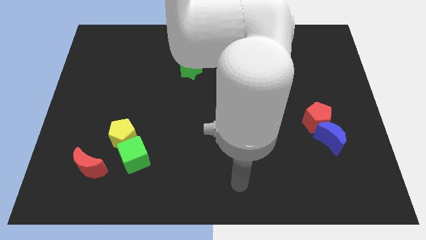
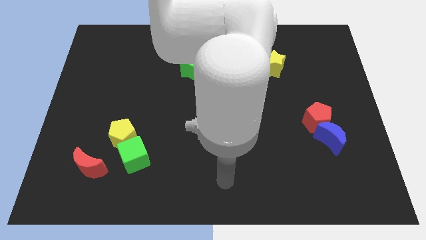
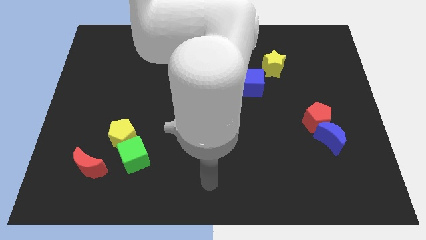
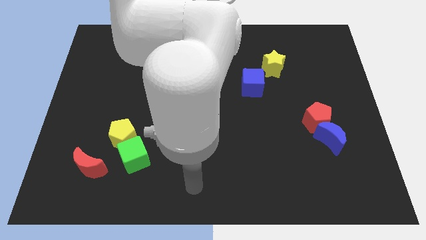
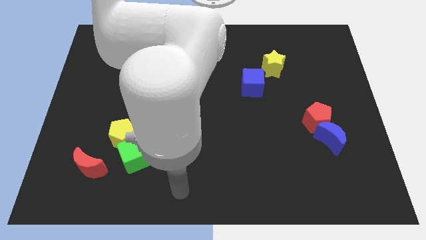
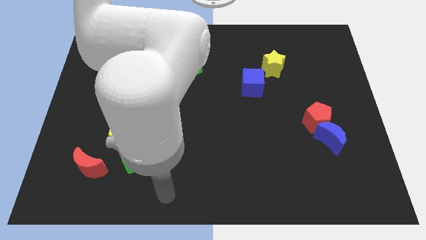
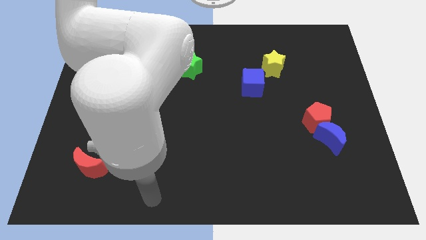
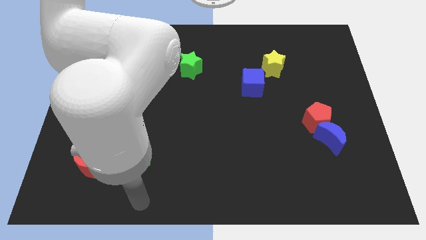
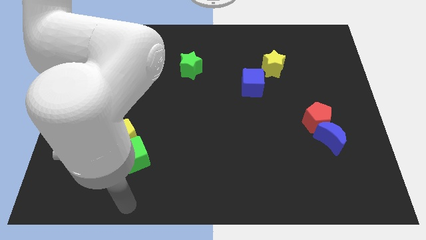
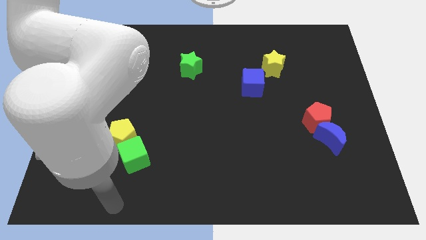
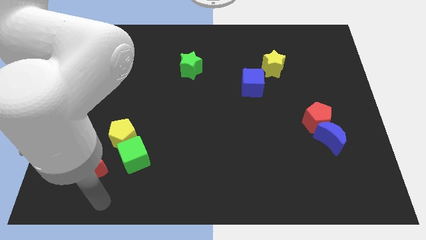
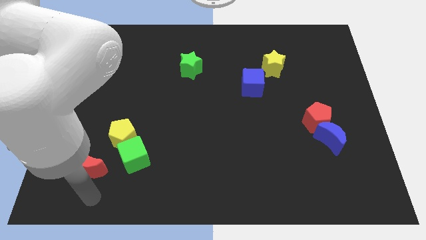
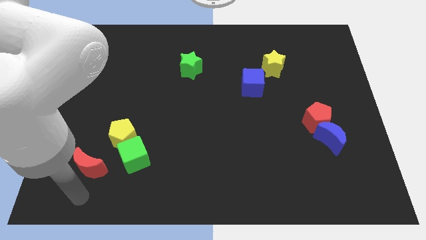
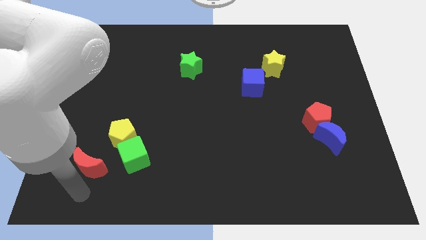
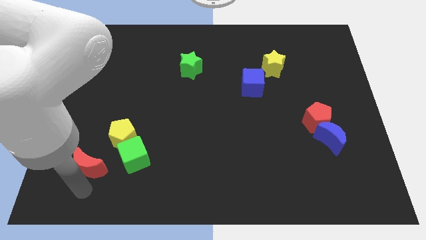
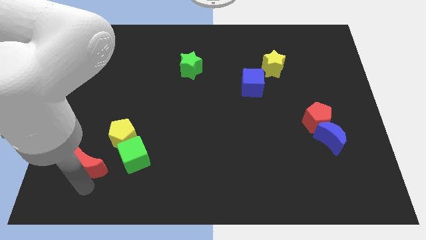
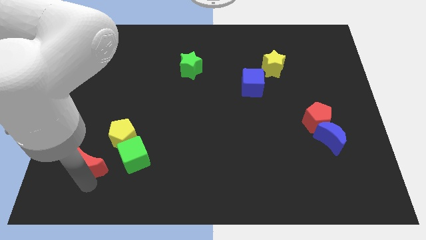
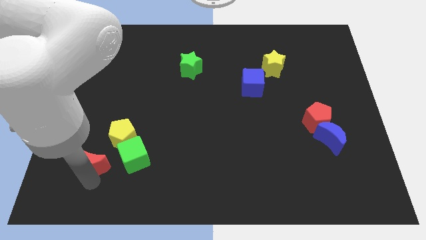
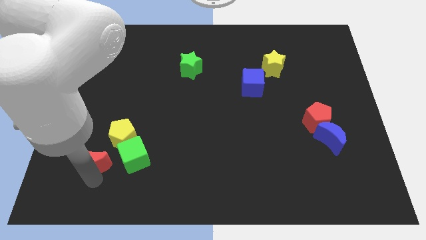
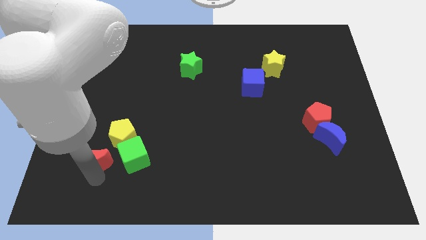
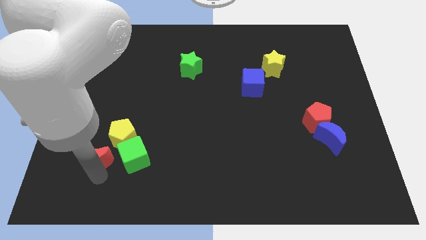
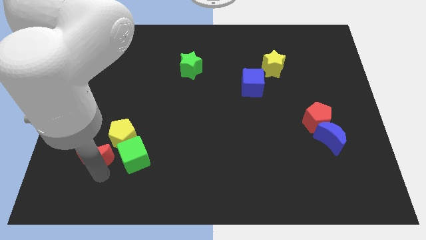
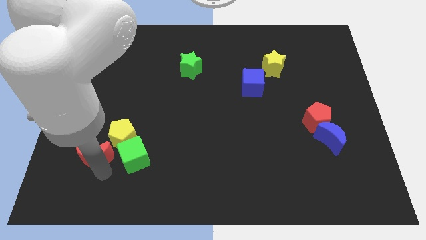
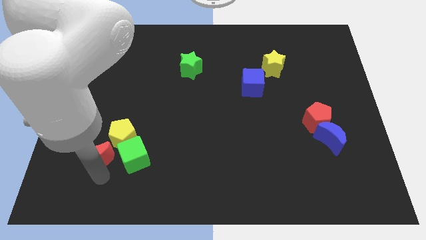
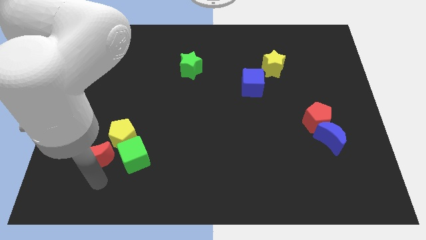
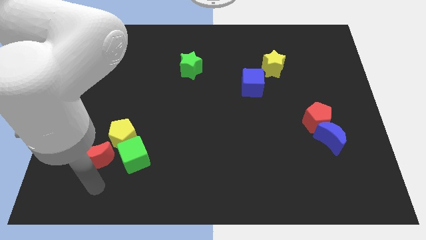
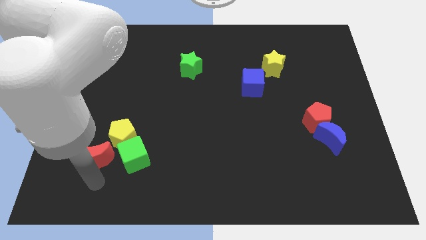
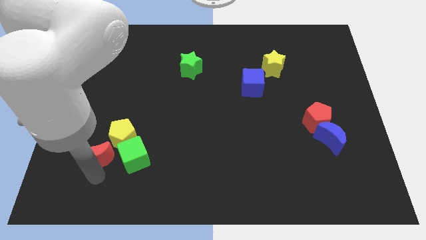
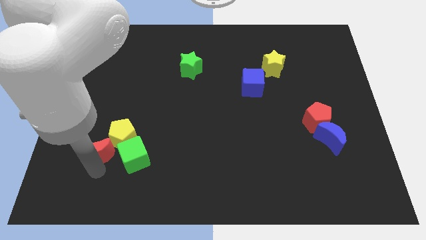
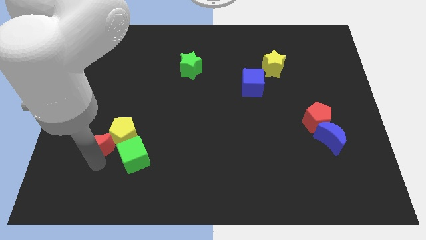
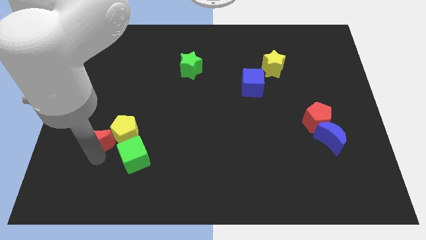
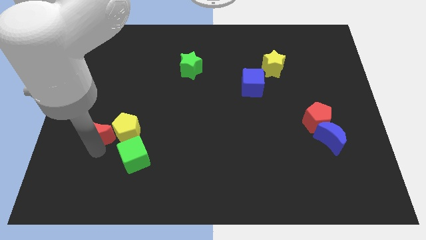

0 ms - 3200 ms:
slightly push the red moon upwards

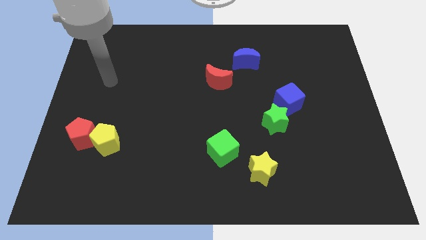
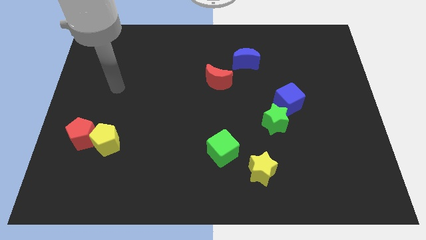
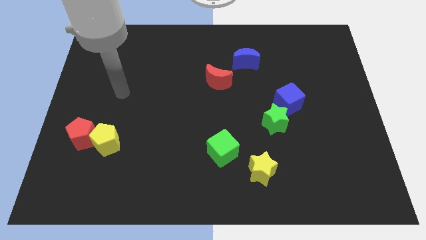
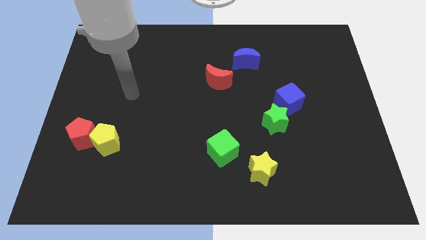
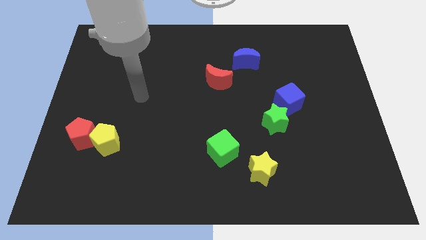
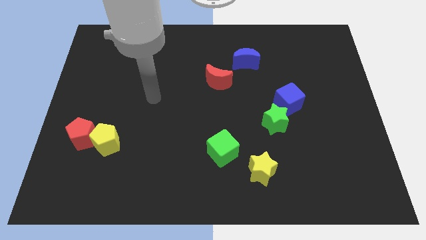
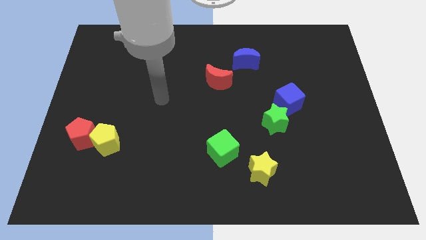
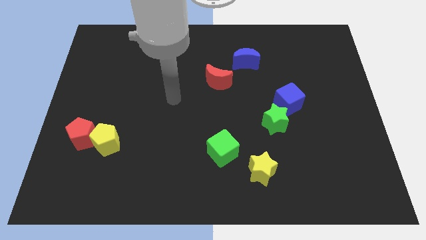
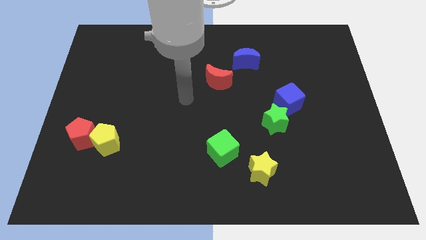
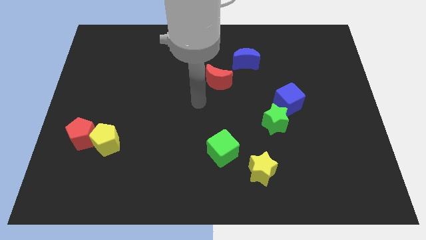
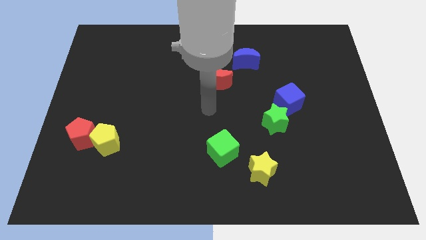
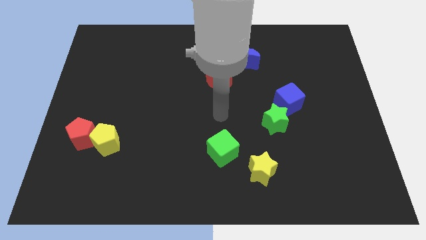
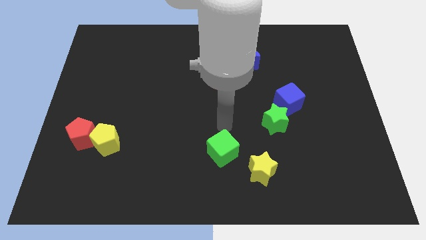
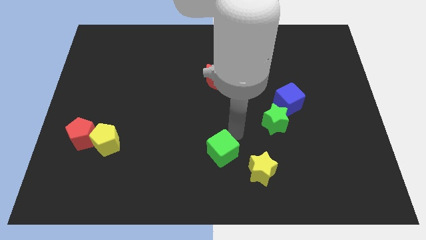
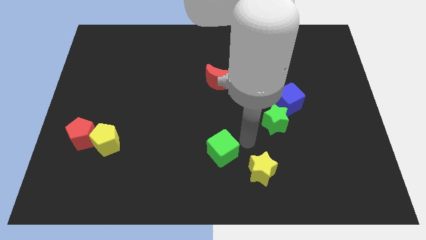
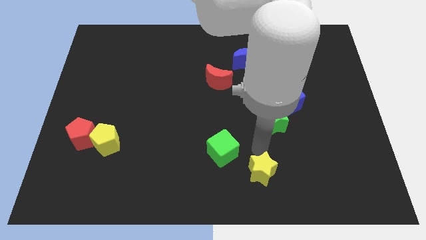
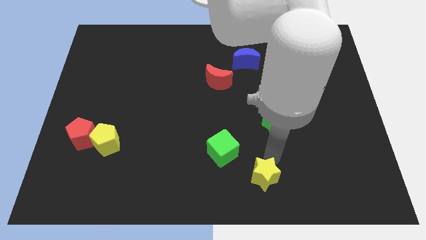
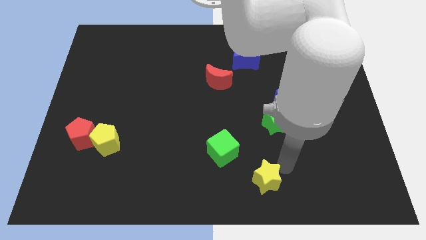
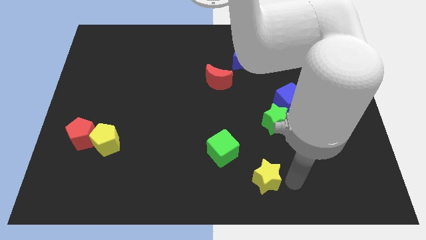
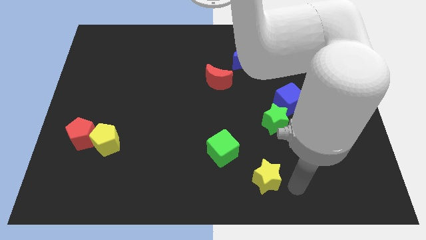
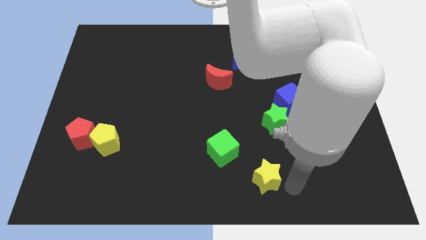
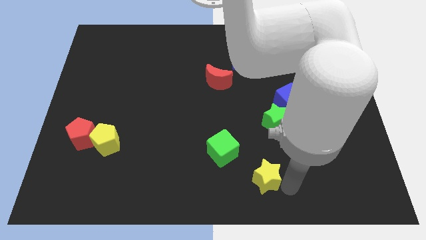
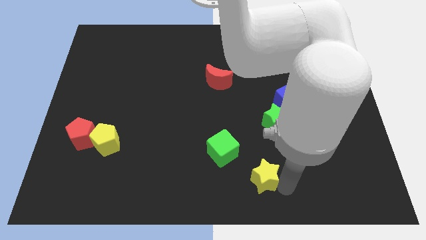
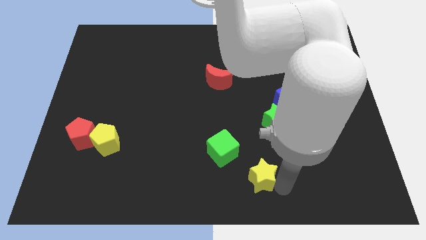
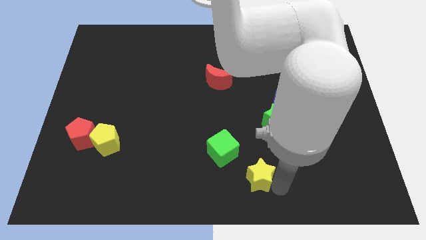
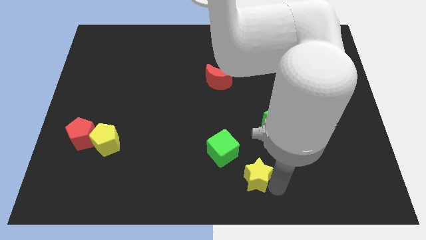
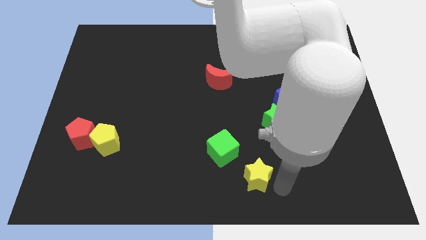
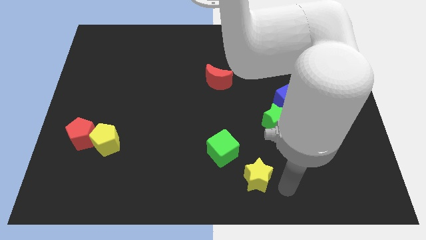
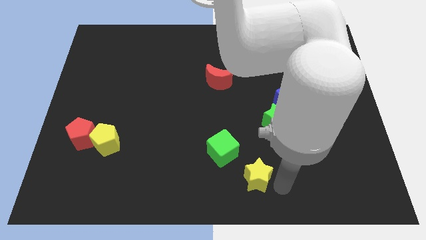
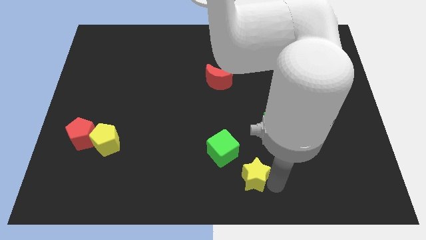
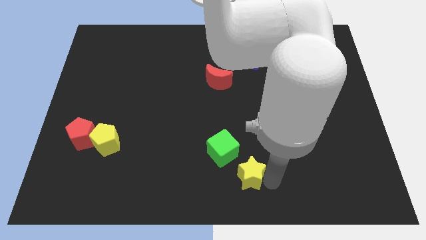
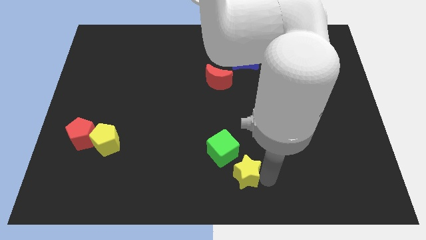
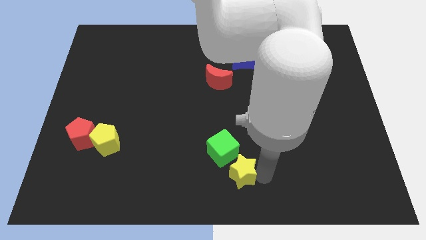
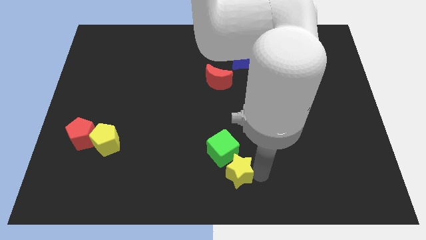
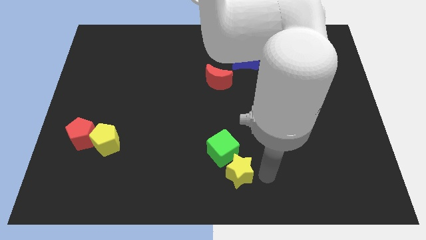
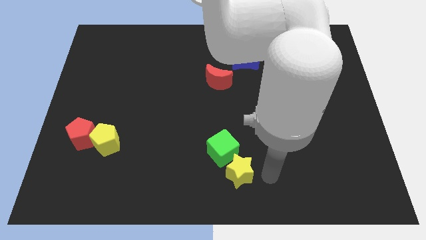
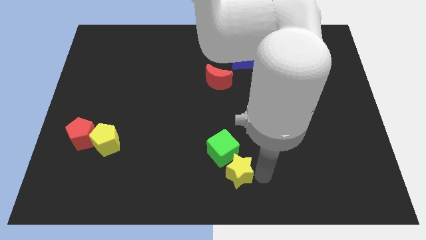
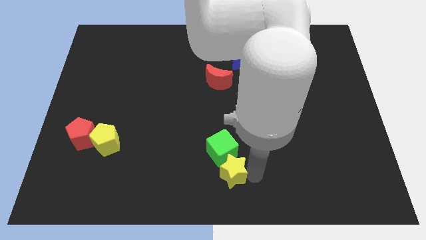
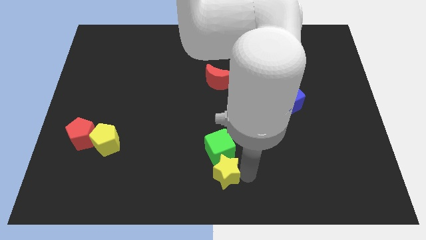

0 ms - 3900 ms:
slightly slide the yellow star left

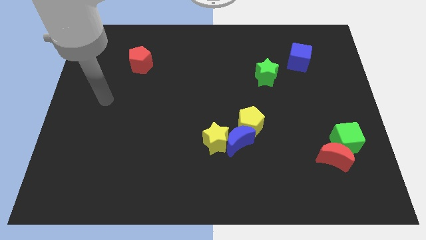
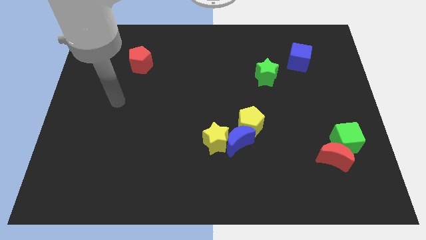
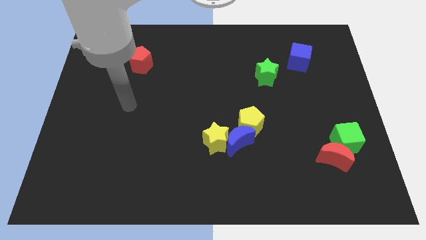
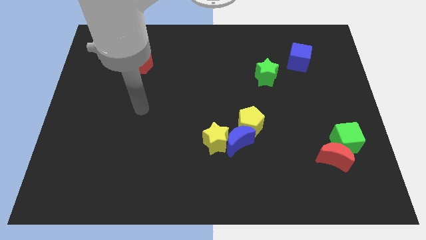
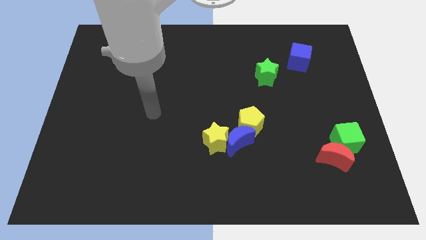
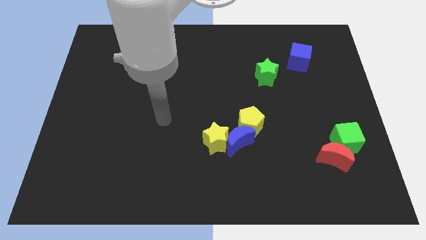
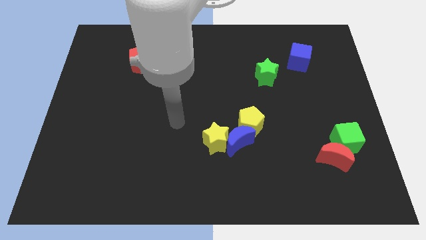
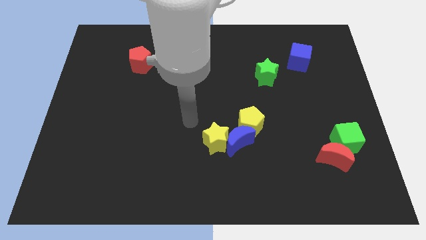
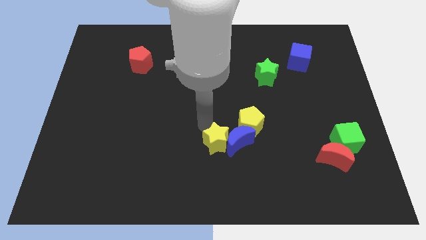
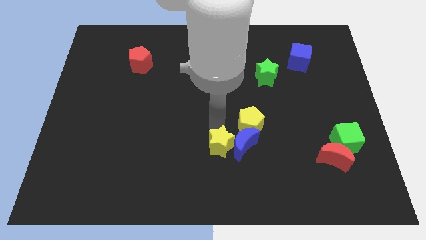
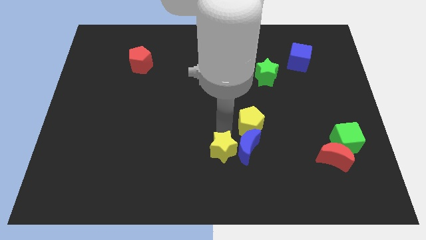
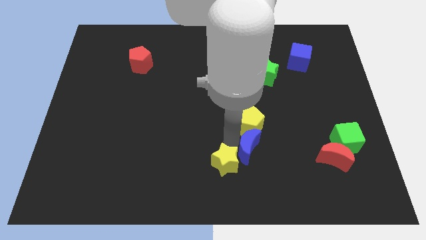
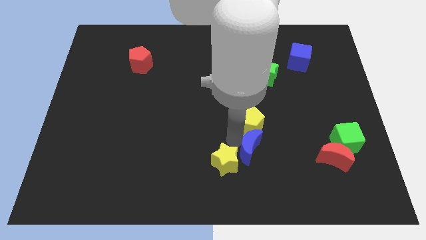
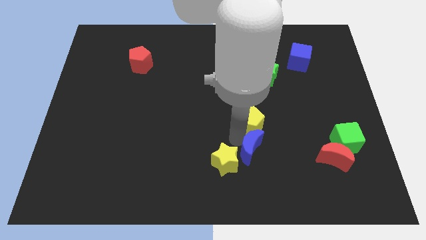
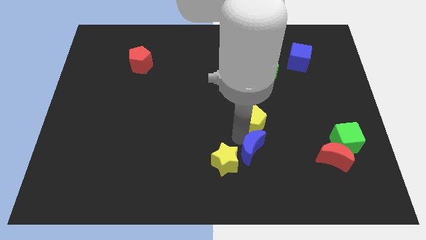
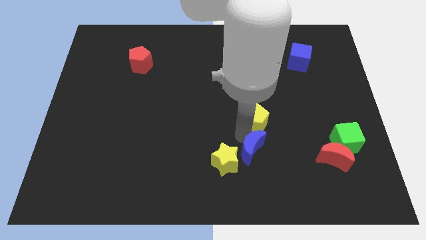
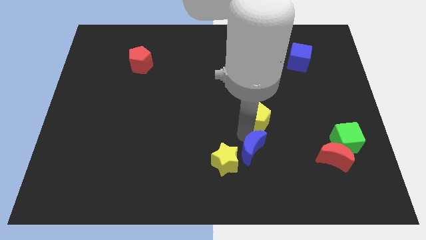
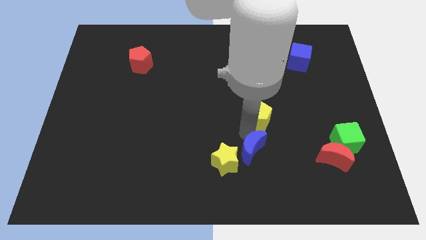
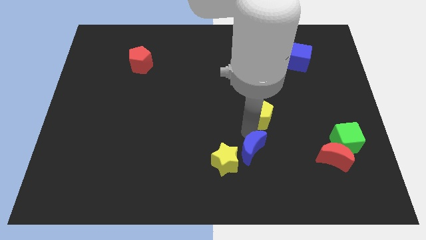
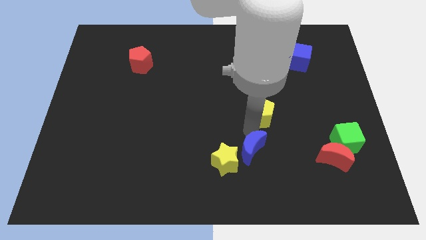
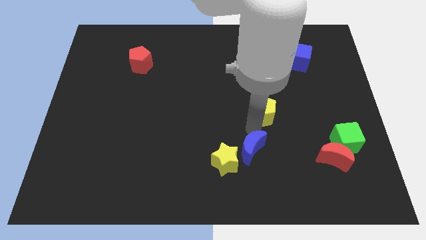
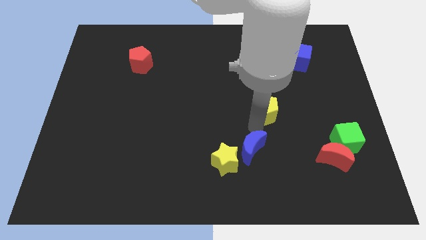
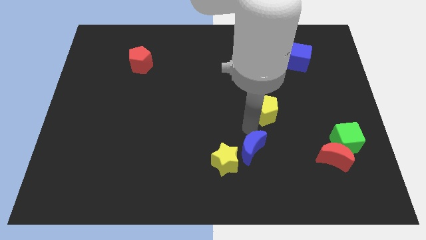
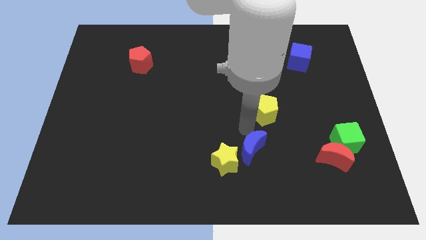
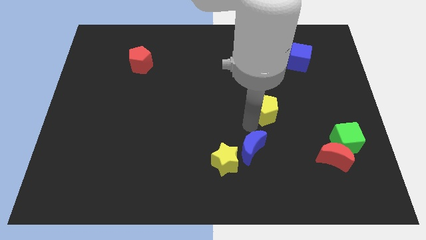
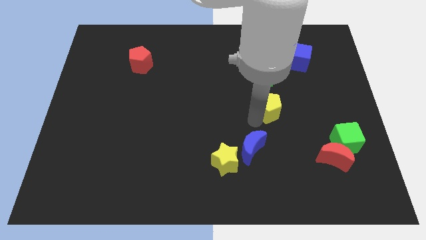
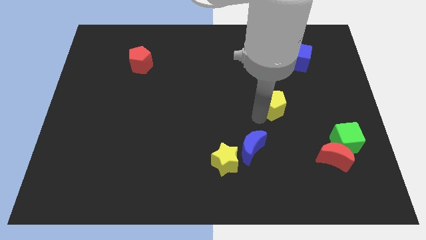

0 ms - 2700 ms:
push the yellow pentagon a little diagonally upwards and to the right
